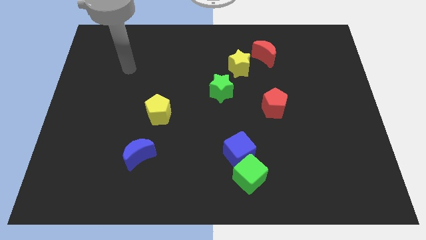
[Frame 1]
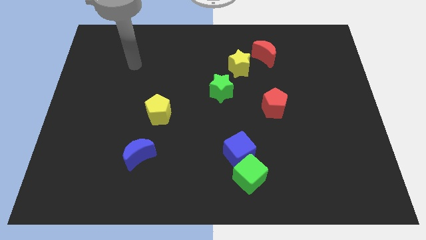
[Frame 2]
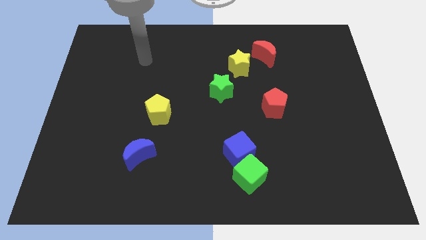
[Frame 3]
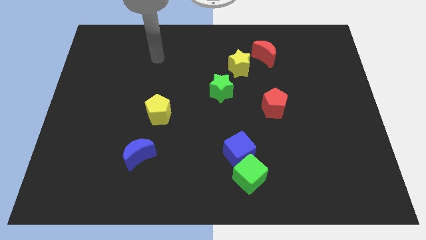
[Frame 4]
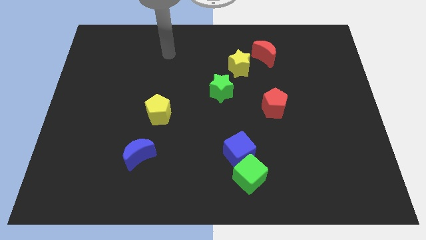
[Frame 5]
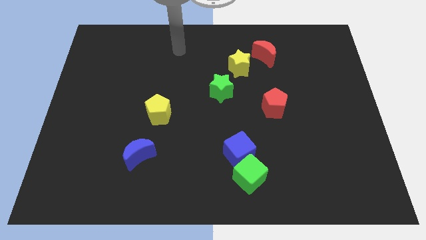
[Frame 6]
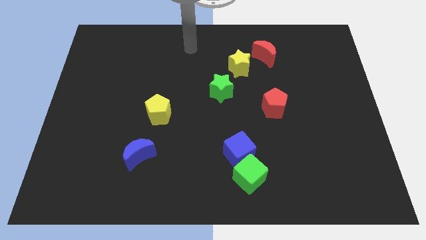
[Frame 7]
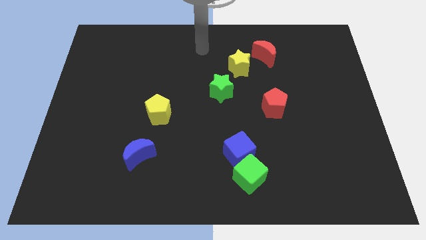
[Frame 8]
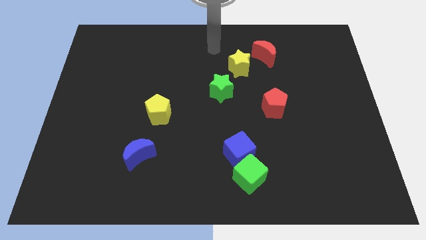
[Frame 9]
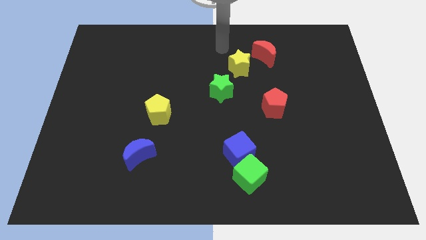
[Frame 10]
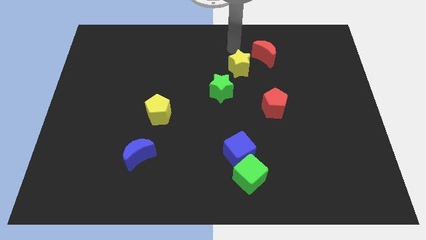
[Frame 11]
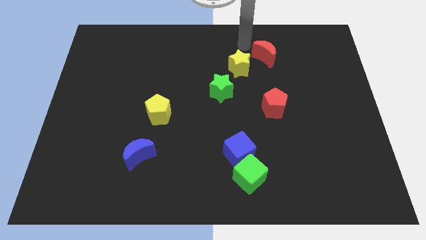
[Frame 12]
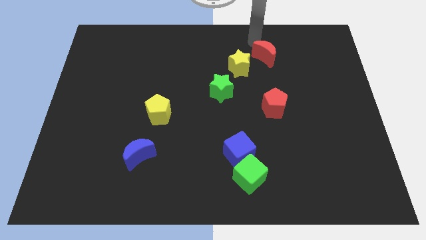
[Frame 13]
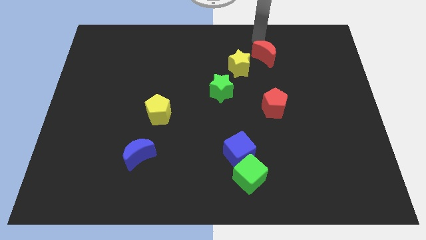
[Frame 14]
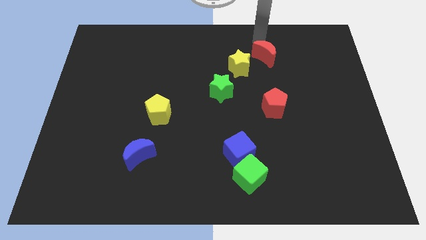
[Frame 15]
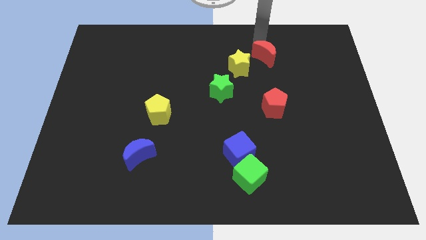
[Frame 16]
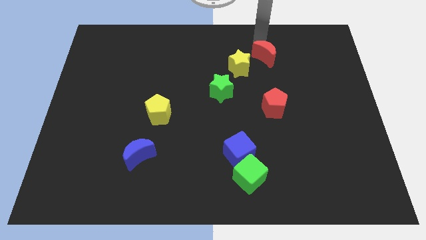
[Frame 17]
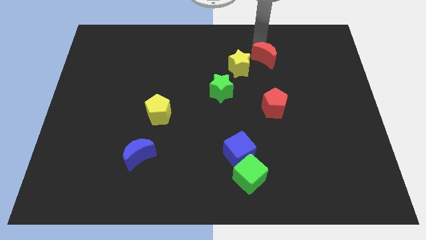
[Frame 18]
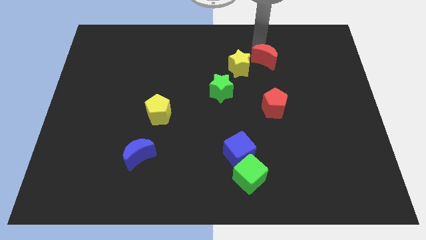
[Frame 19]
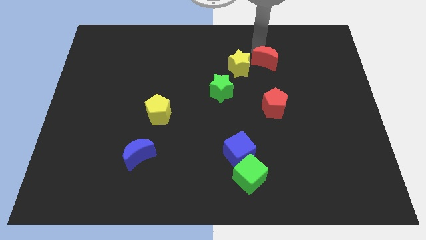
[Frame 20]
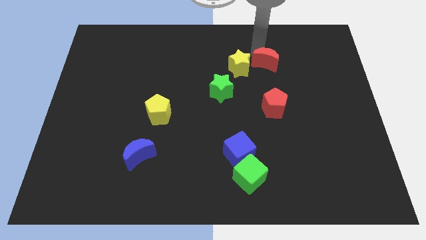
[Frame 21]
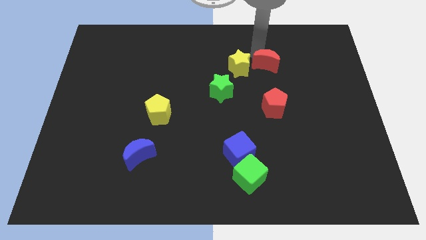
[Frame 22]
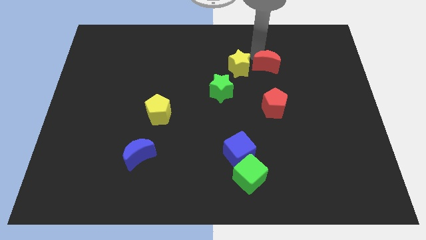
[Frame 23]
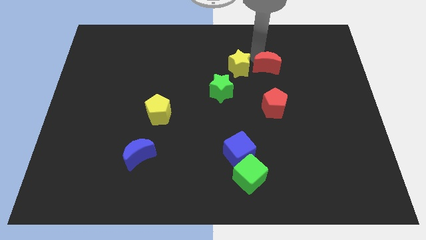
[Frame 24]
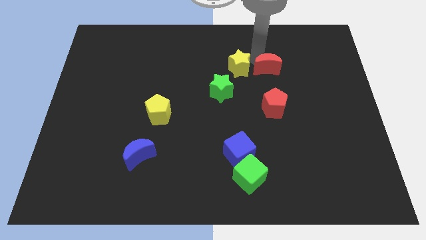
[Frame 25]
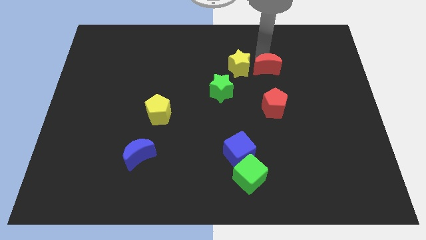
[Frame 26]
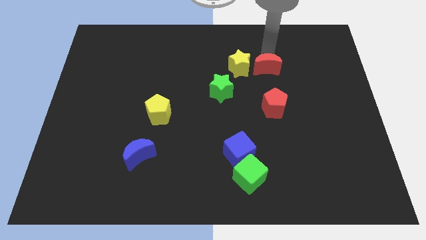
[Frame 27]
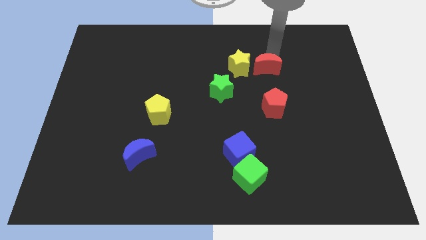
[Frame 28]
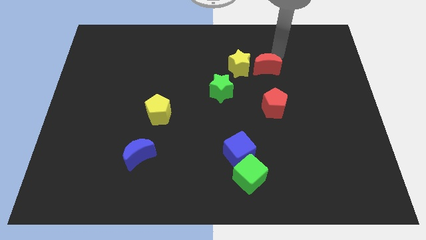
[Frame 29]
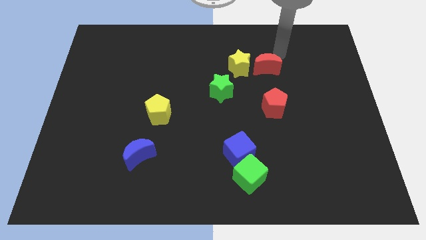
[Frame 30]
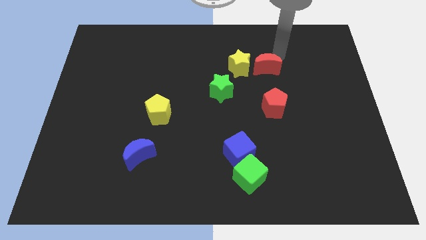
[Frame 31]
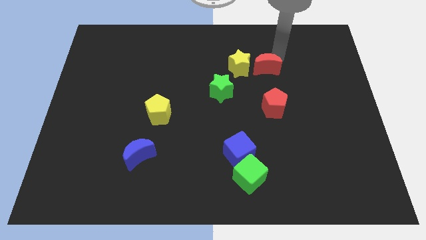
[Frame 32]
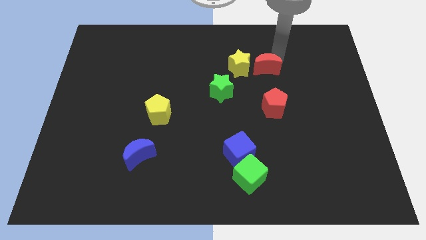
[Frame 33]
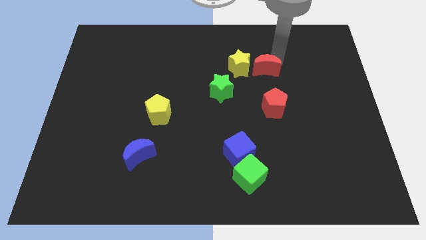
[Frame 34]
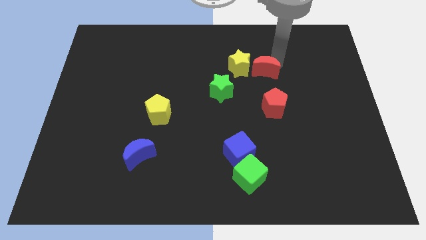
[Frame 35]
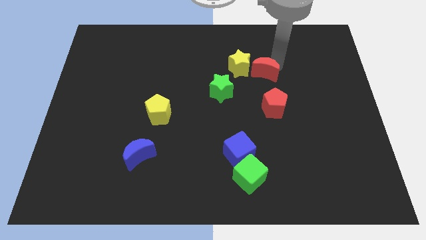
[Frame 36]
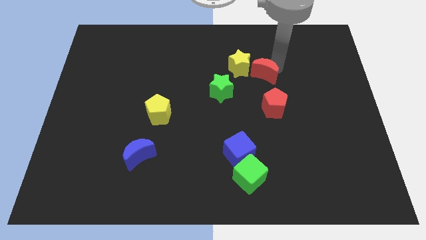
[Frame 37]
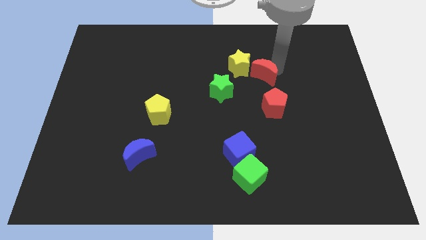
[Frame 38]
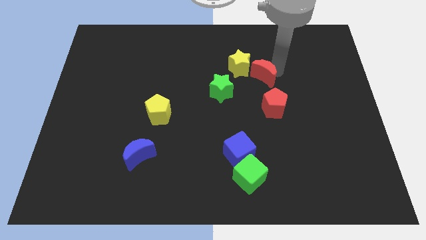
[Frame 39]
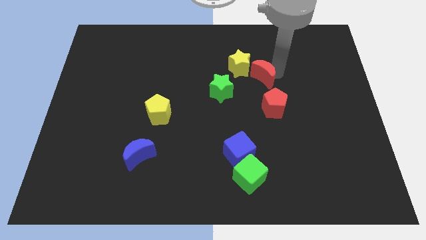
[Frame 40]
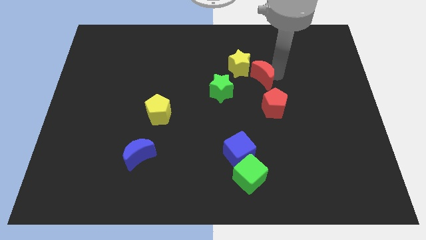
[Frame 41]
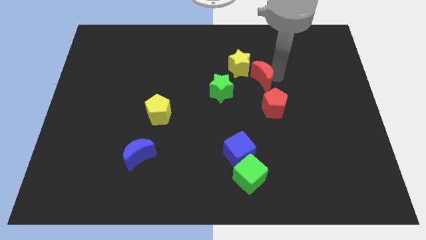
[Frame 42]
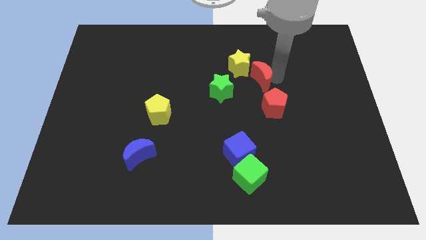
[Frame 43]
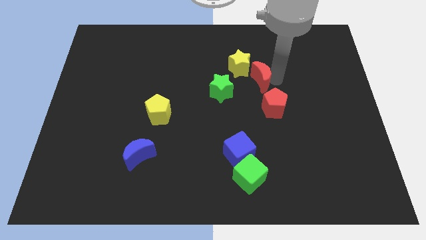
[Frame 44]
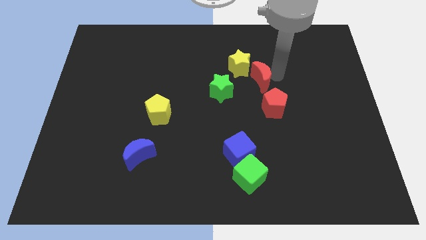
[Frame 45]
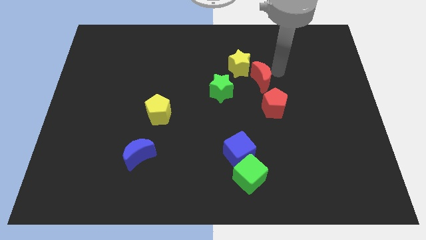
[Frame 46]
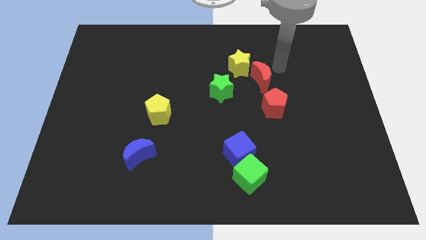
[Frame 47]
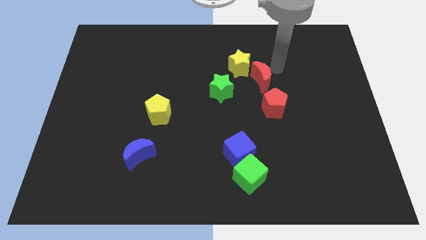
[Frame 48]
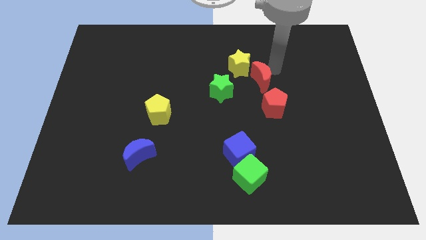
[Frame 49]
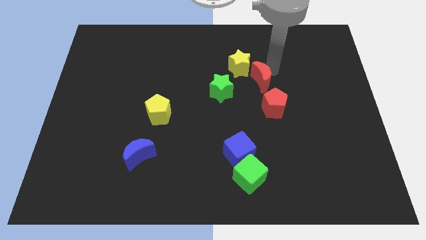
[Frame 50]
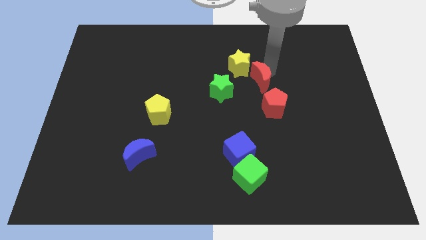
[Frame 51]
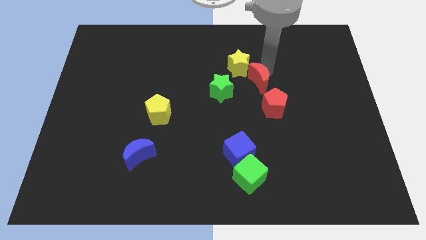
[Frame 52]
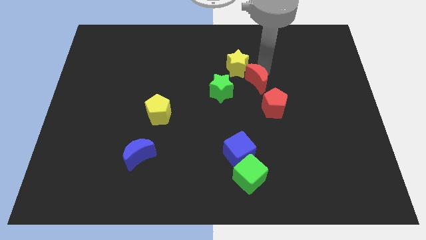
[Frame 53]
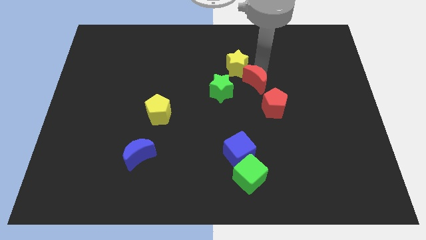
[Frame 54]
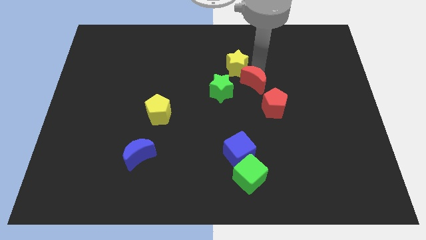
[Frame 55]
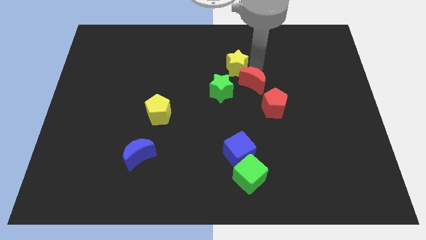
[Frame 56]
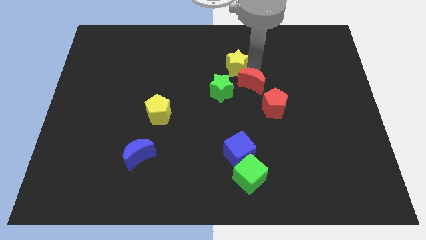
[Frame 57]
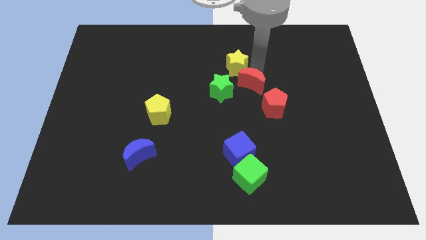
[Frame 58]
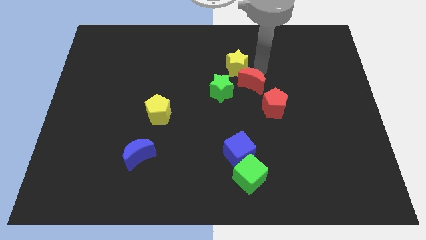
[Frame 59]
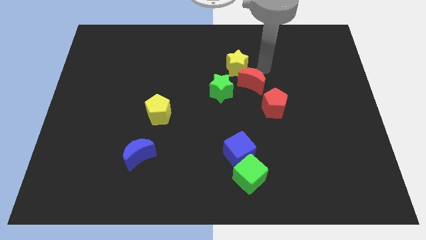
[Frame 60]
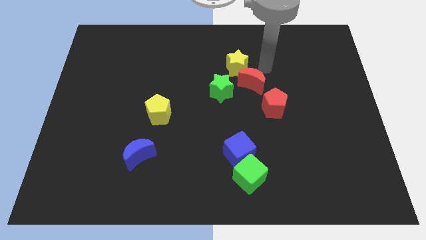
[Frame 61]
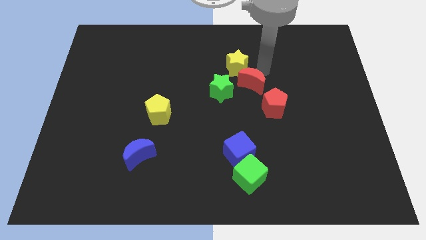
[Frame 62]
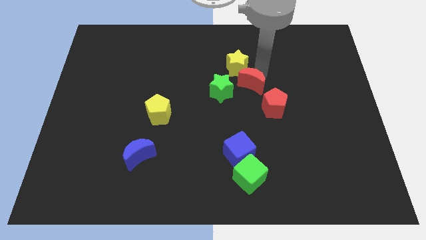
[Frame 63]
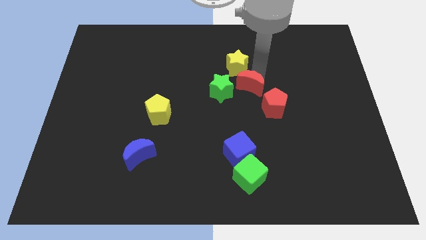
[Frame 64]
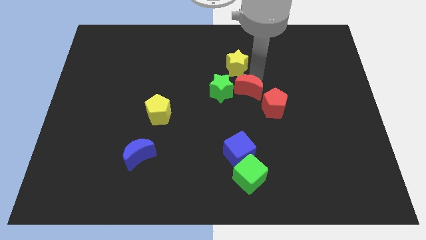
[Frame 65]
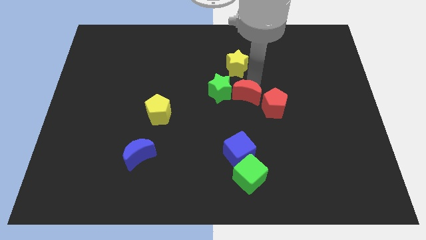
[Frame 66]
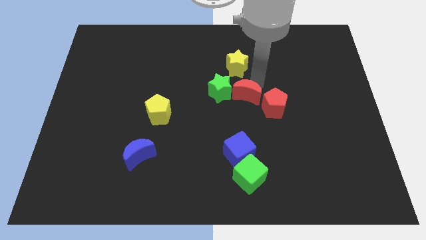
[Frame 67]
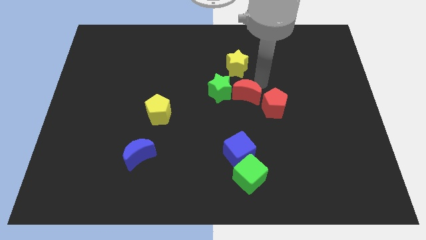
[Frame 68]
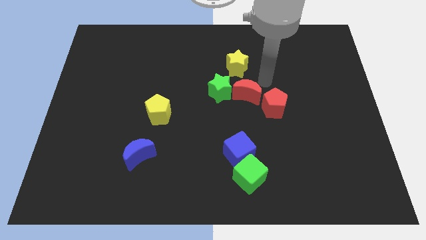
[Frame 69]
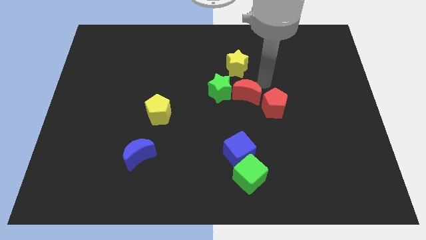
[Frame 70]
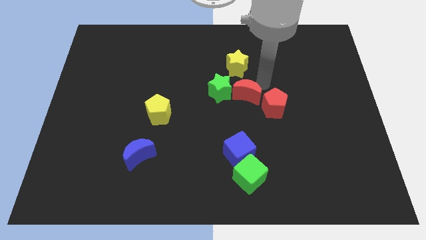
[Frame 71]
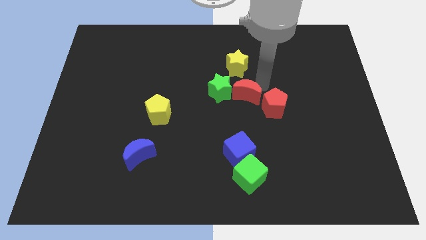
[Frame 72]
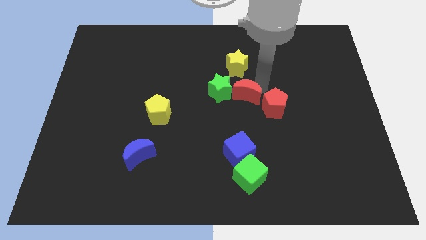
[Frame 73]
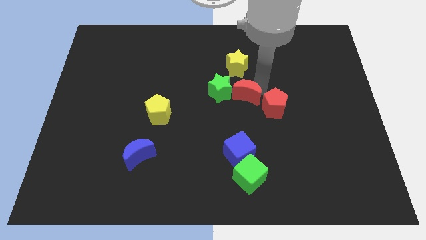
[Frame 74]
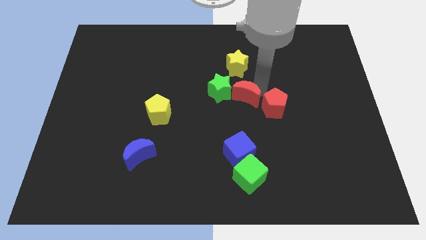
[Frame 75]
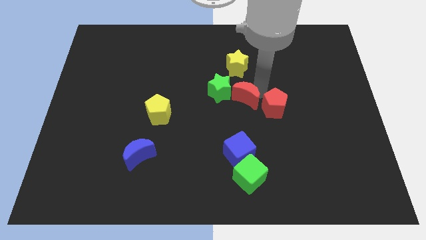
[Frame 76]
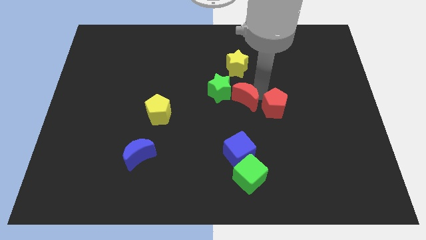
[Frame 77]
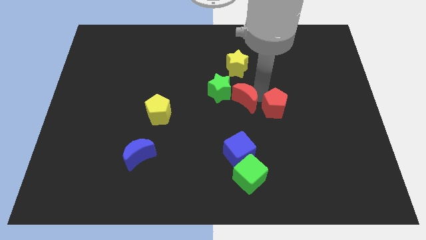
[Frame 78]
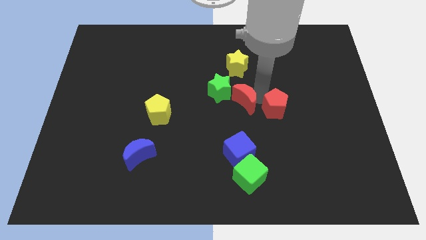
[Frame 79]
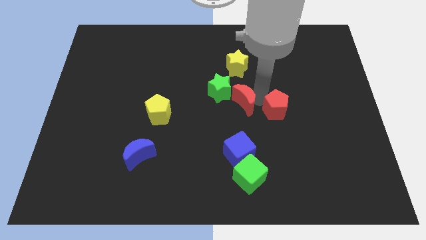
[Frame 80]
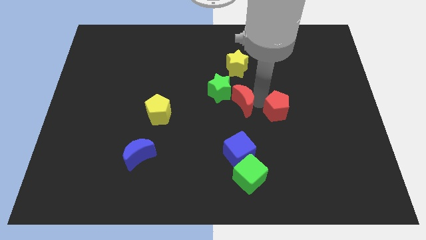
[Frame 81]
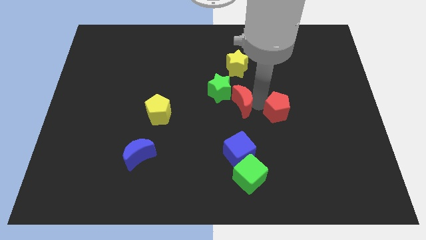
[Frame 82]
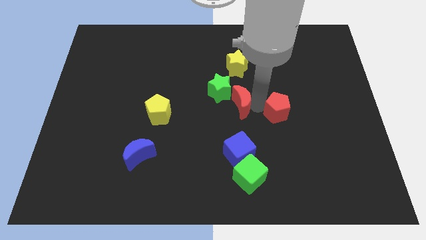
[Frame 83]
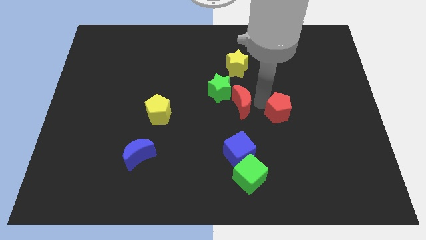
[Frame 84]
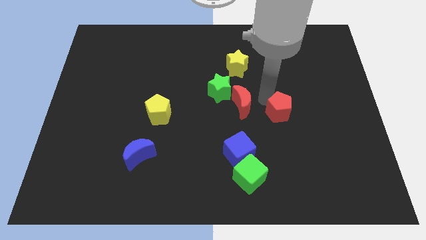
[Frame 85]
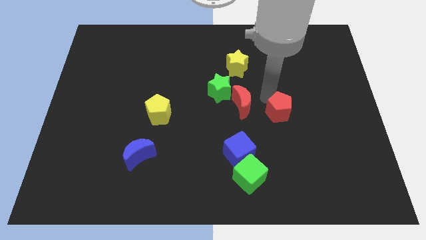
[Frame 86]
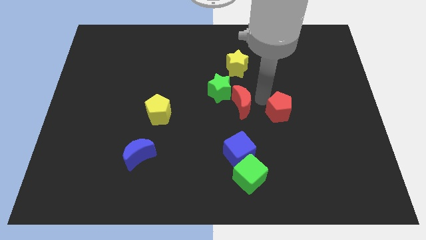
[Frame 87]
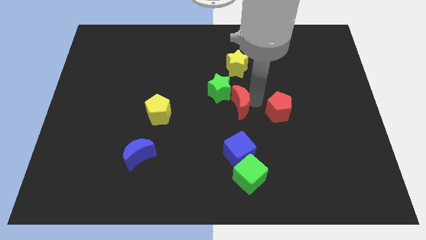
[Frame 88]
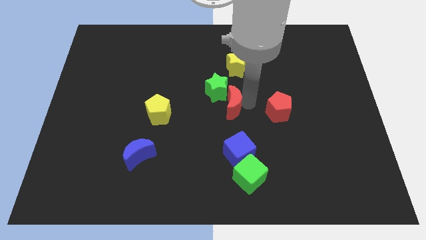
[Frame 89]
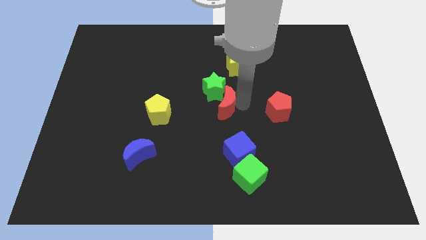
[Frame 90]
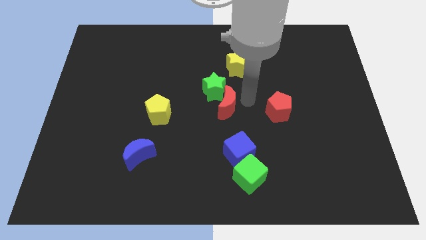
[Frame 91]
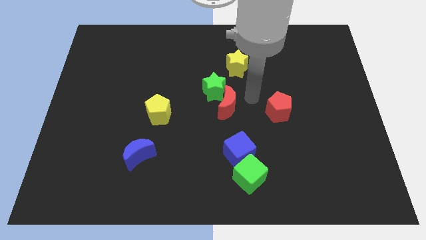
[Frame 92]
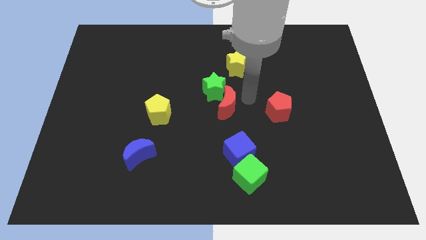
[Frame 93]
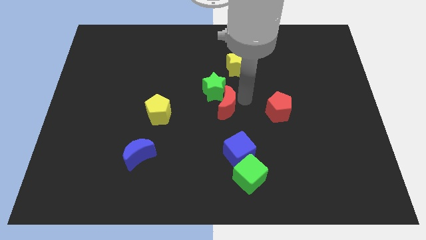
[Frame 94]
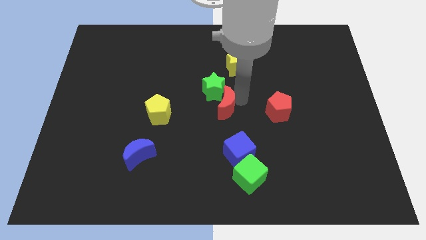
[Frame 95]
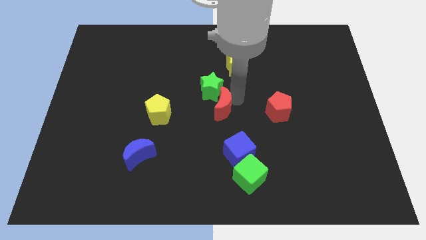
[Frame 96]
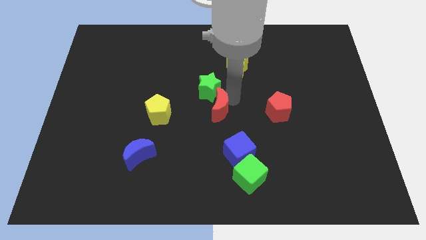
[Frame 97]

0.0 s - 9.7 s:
slide the red moon downwards and to the left diagonally
